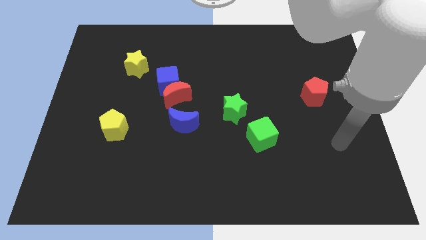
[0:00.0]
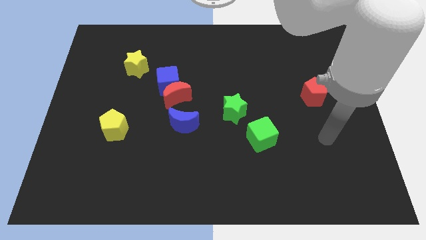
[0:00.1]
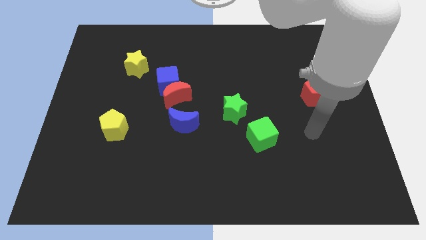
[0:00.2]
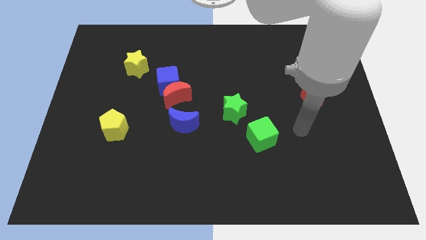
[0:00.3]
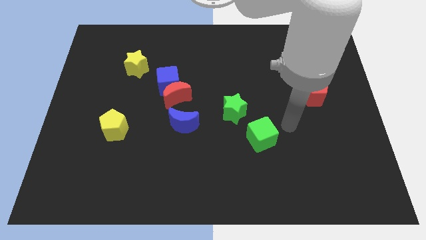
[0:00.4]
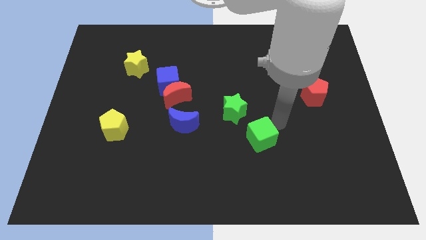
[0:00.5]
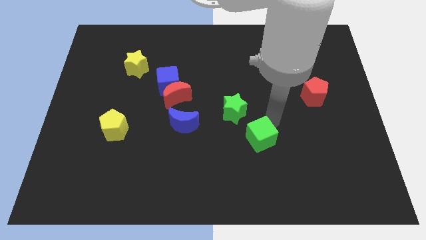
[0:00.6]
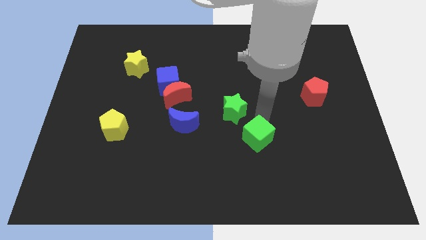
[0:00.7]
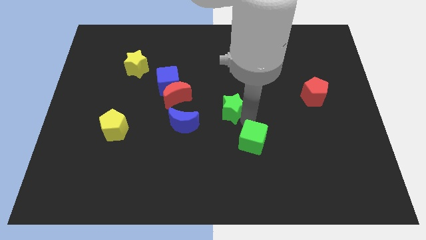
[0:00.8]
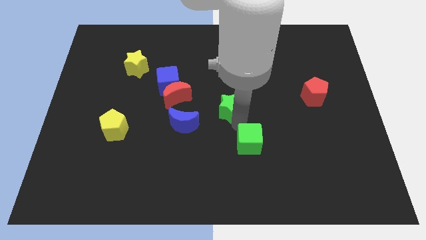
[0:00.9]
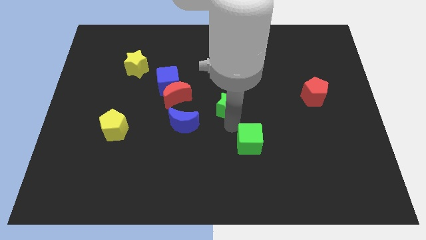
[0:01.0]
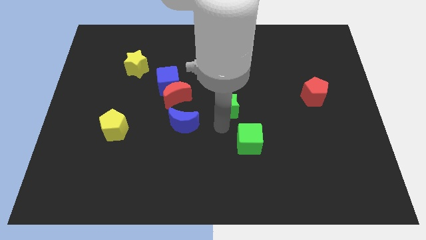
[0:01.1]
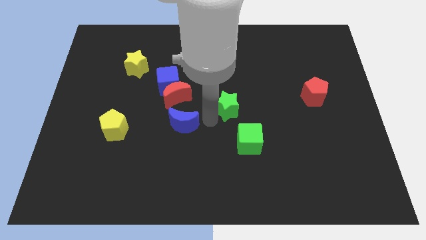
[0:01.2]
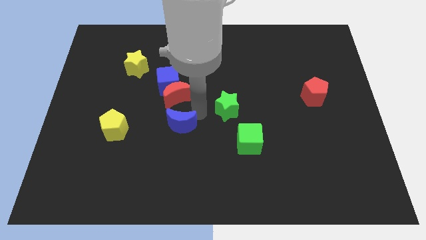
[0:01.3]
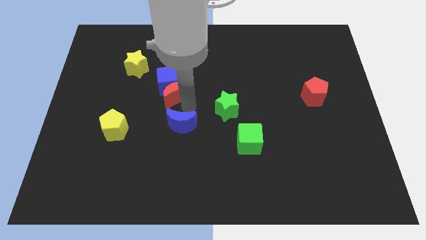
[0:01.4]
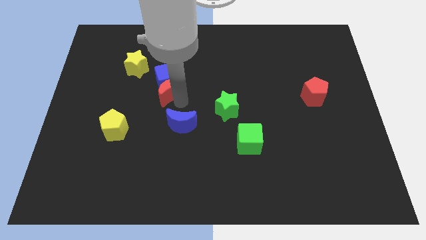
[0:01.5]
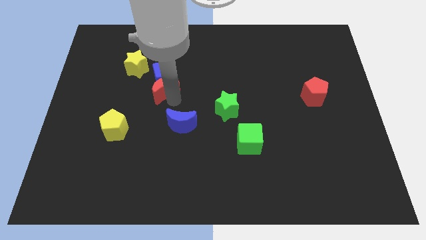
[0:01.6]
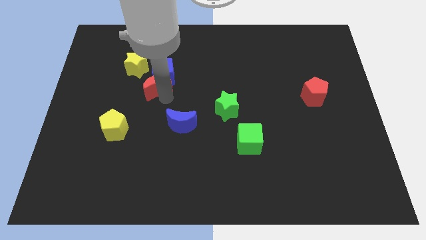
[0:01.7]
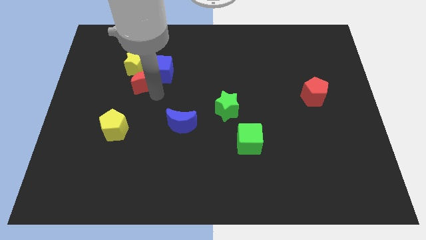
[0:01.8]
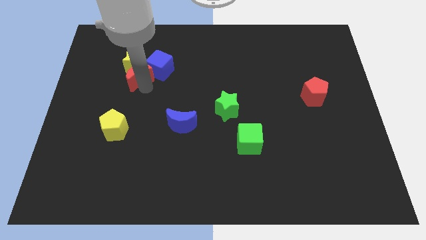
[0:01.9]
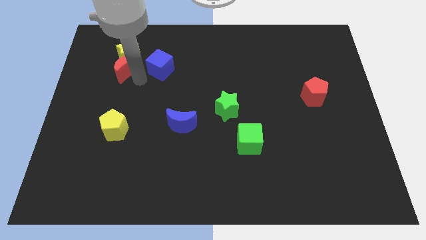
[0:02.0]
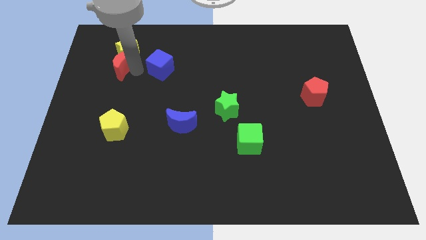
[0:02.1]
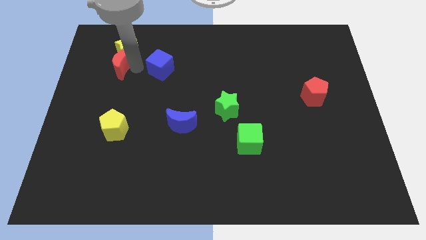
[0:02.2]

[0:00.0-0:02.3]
pull the blue cube apart from the red moon

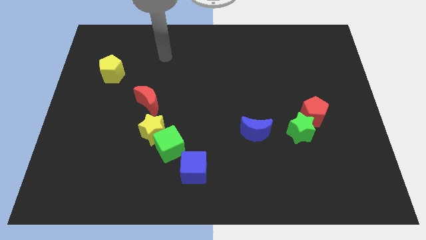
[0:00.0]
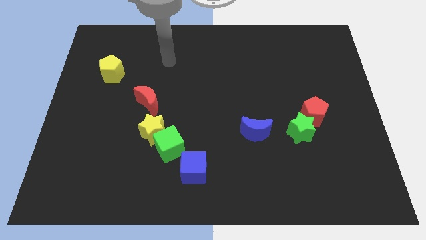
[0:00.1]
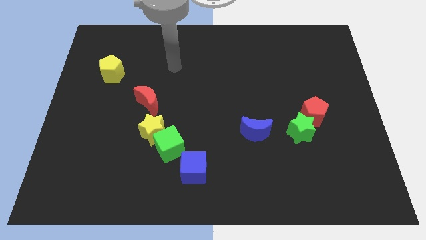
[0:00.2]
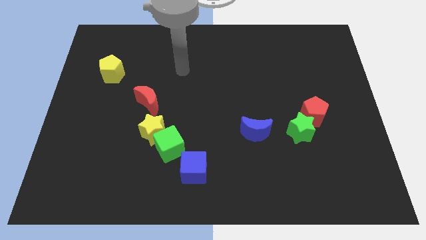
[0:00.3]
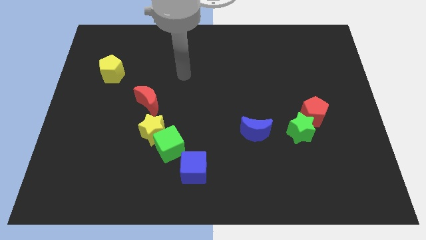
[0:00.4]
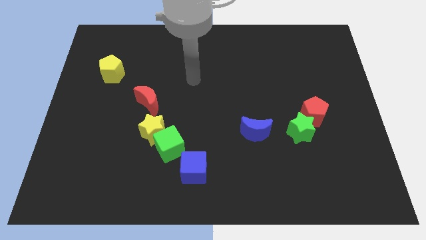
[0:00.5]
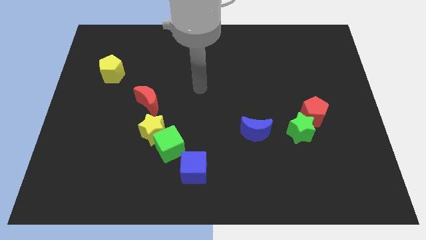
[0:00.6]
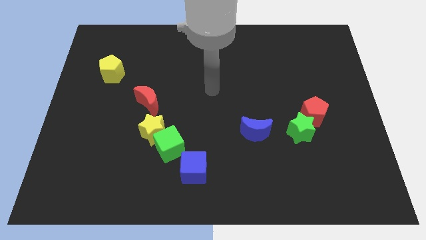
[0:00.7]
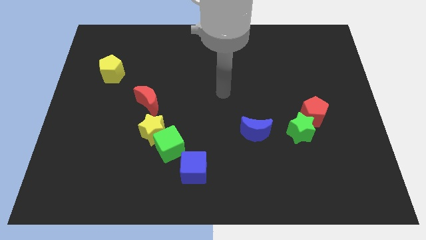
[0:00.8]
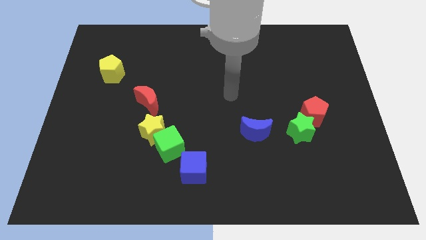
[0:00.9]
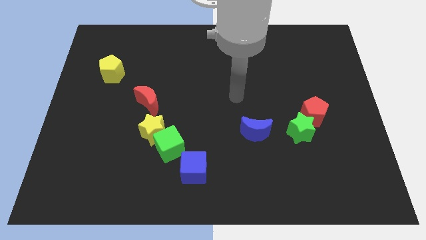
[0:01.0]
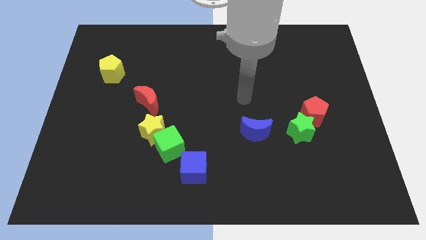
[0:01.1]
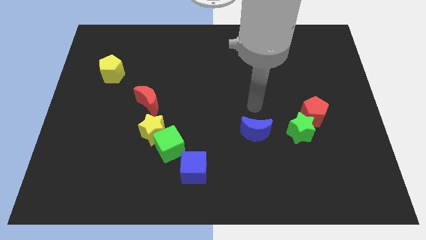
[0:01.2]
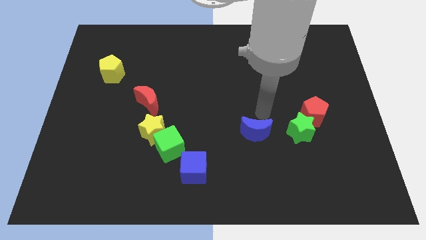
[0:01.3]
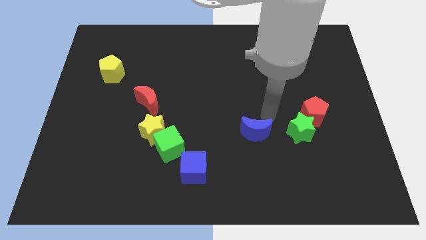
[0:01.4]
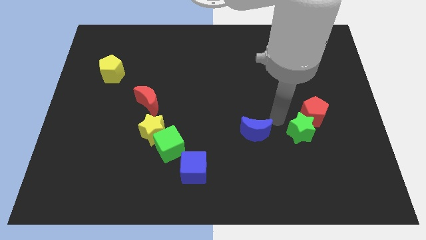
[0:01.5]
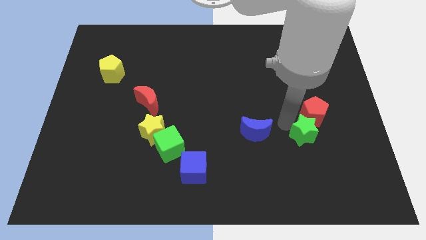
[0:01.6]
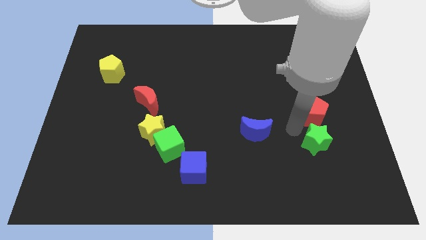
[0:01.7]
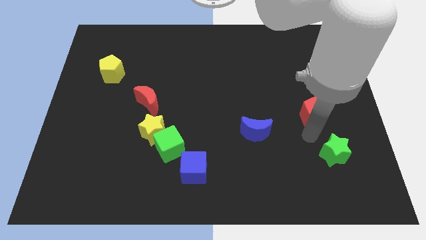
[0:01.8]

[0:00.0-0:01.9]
move the red pentagon away from the green star

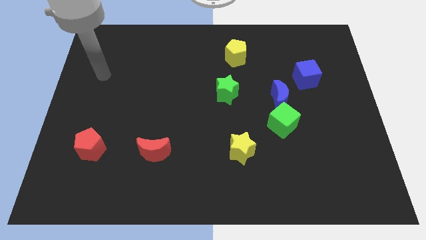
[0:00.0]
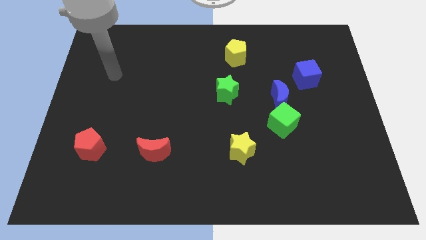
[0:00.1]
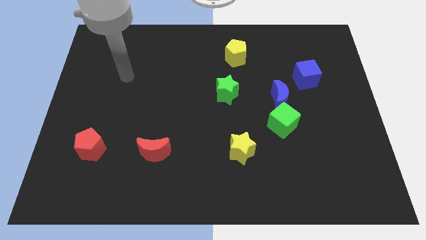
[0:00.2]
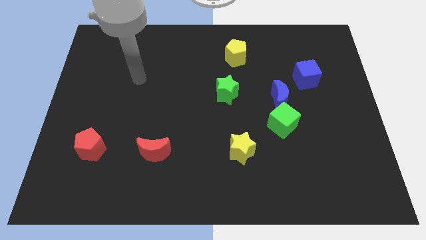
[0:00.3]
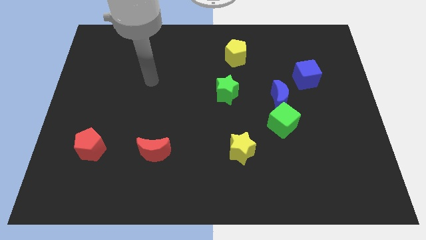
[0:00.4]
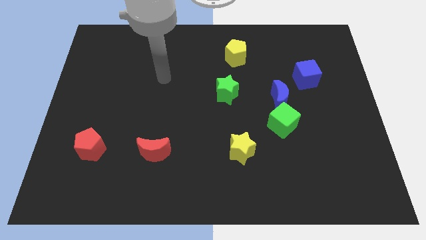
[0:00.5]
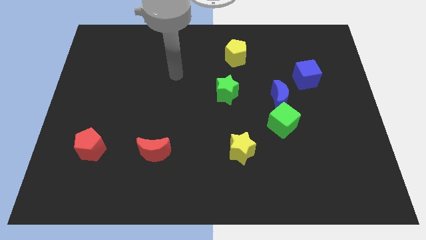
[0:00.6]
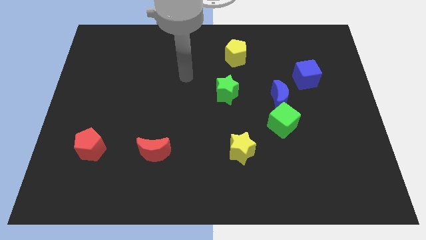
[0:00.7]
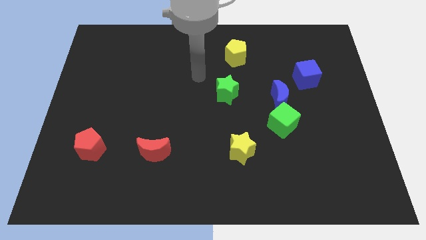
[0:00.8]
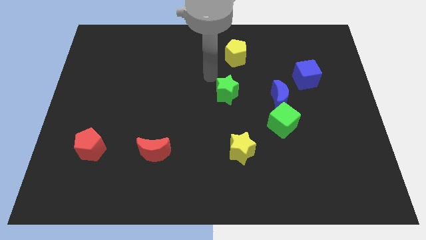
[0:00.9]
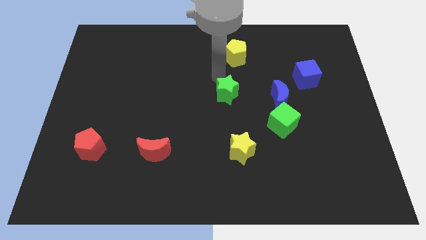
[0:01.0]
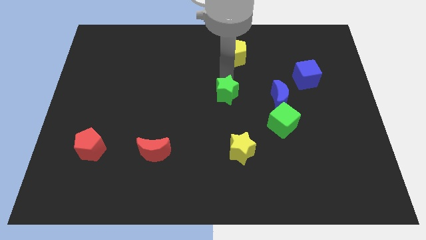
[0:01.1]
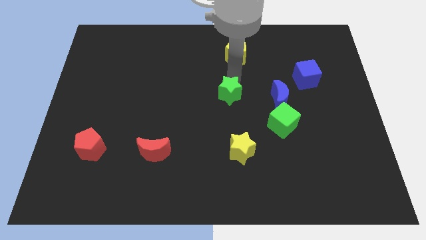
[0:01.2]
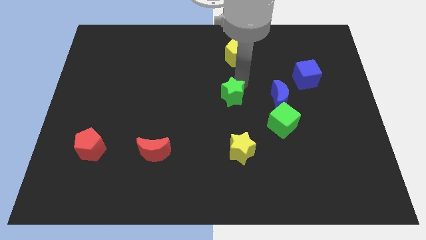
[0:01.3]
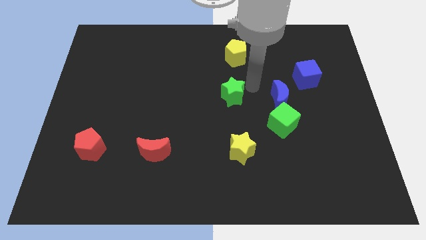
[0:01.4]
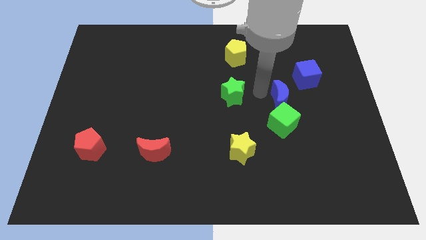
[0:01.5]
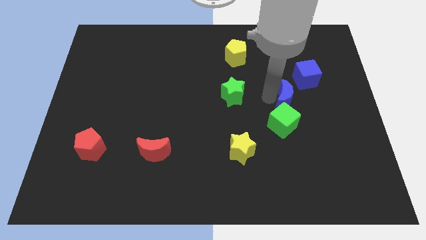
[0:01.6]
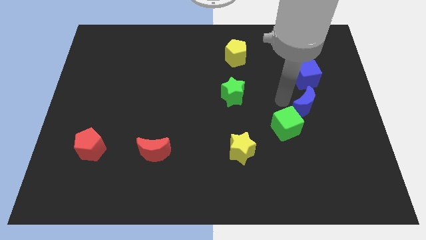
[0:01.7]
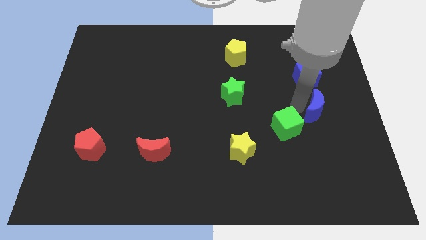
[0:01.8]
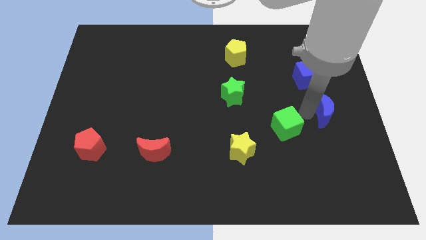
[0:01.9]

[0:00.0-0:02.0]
pull the green cube apart from the blue moon

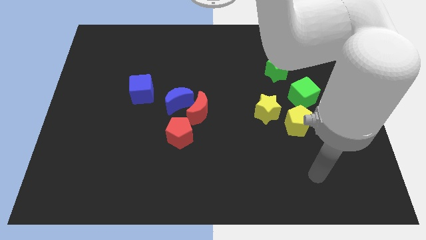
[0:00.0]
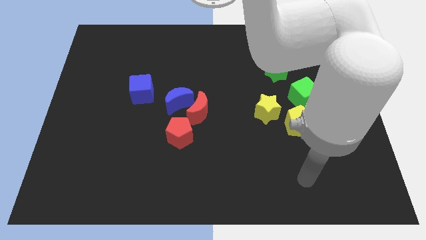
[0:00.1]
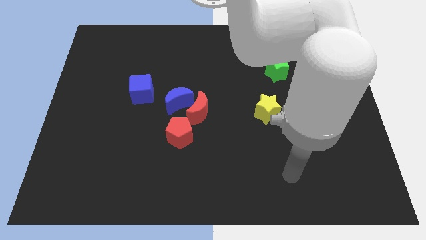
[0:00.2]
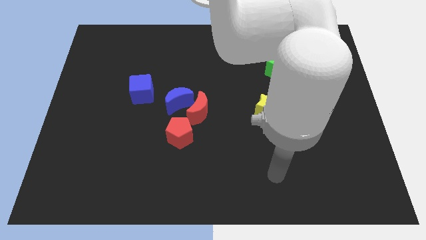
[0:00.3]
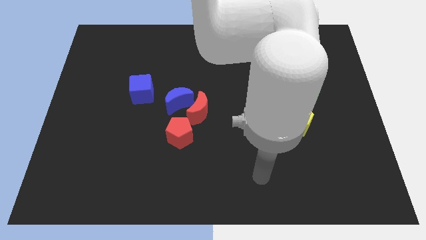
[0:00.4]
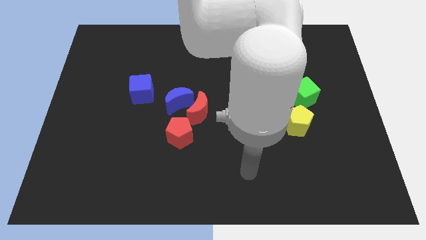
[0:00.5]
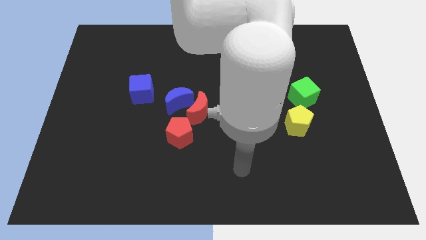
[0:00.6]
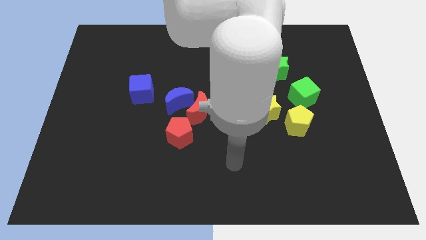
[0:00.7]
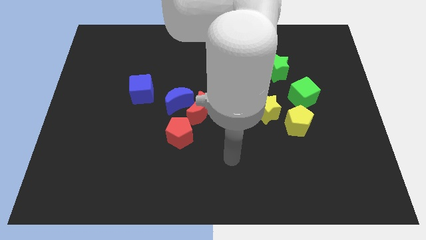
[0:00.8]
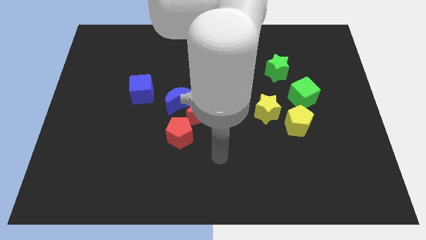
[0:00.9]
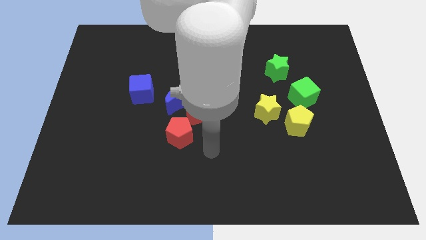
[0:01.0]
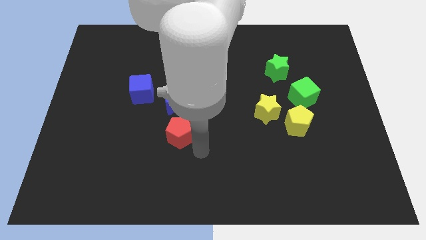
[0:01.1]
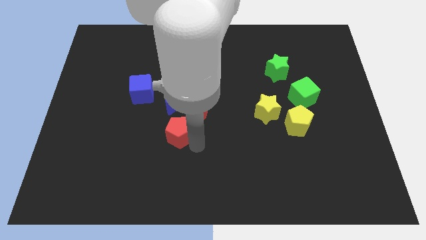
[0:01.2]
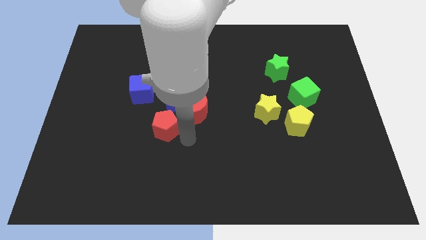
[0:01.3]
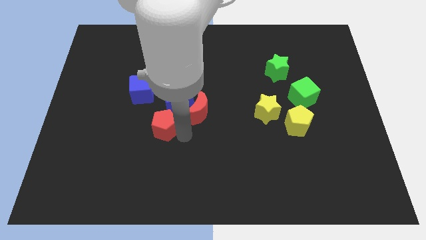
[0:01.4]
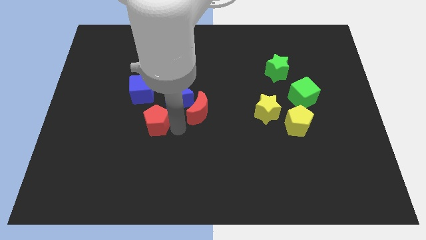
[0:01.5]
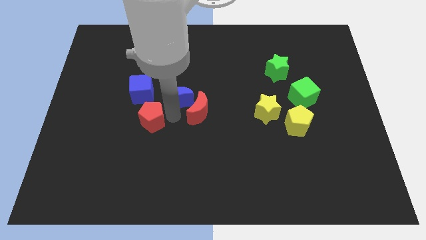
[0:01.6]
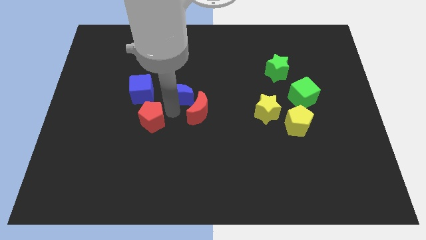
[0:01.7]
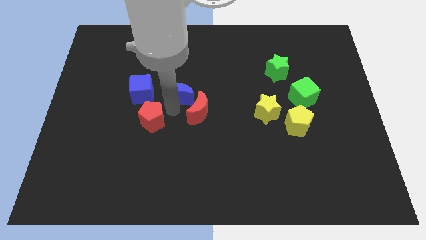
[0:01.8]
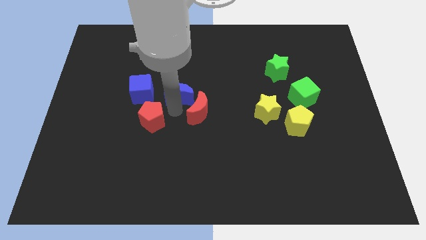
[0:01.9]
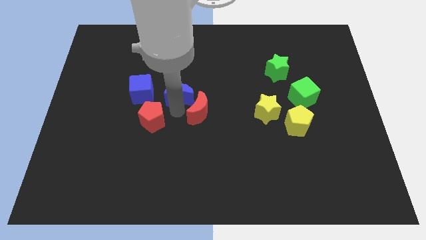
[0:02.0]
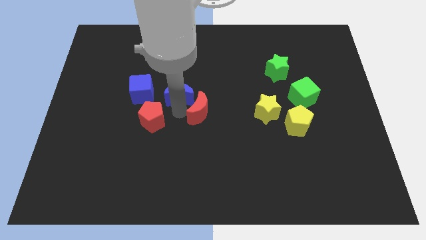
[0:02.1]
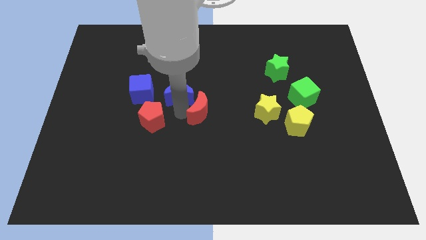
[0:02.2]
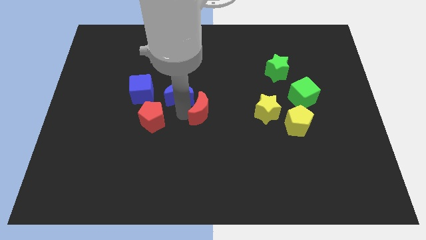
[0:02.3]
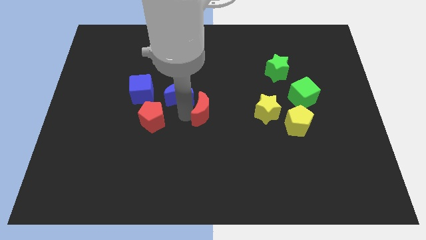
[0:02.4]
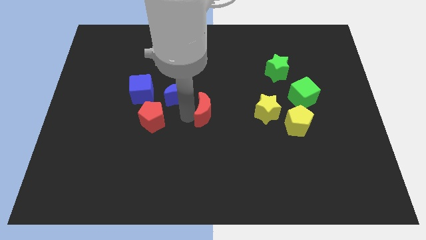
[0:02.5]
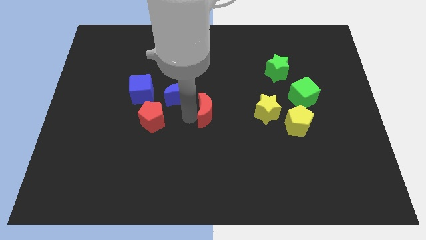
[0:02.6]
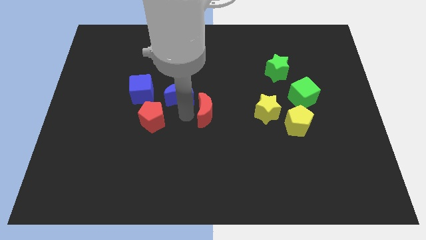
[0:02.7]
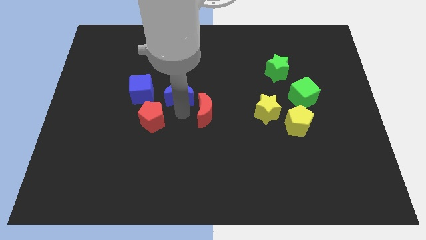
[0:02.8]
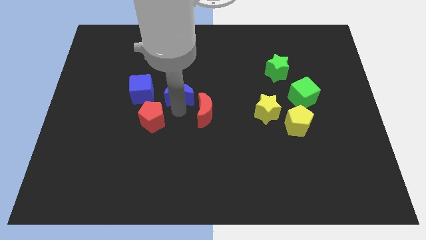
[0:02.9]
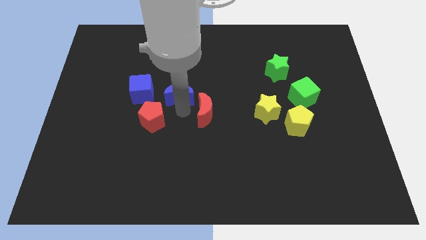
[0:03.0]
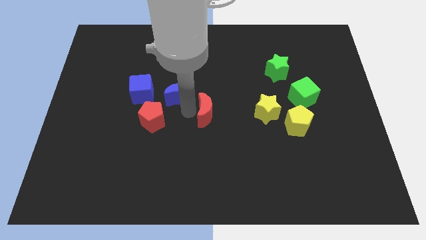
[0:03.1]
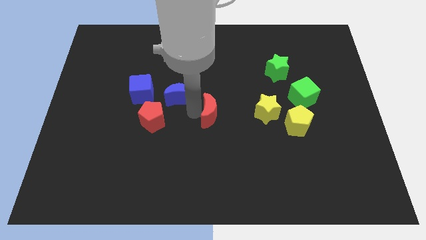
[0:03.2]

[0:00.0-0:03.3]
move the red moon away from the blue moon and red pentagon
